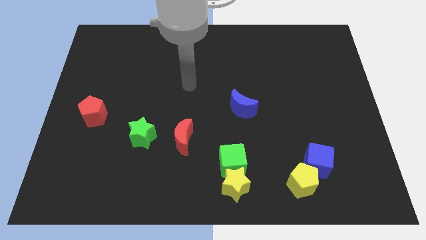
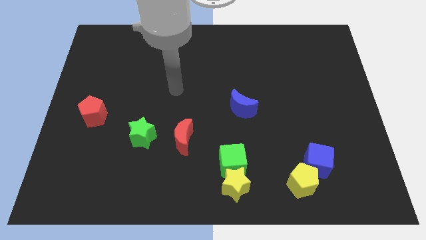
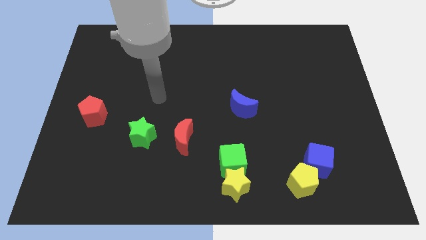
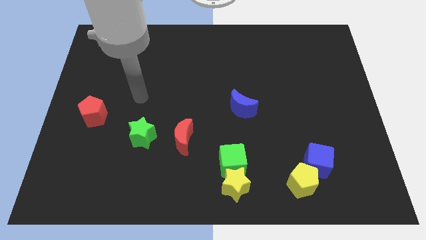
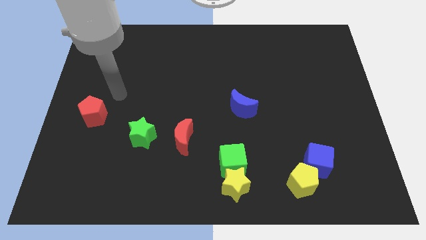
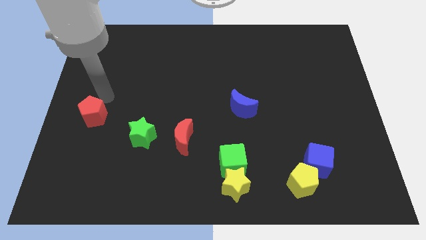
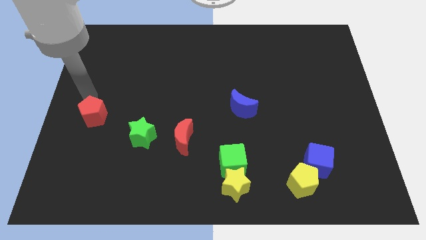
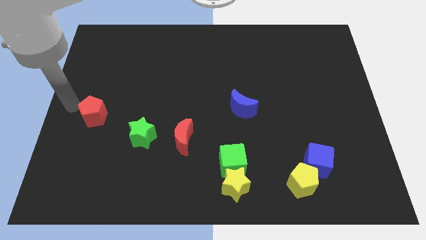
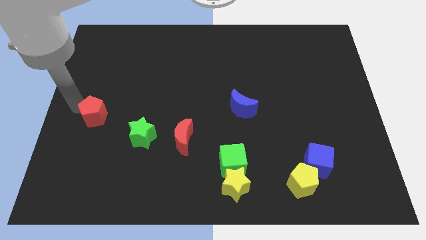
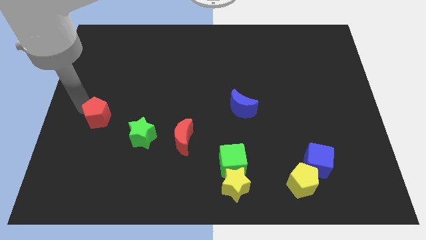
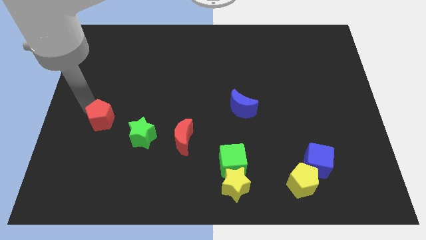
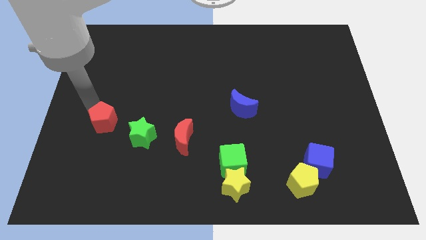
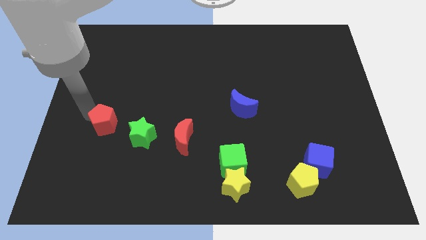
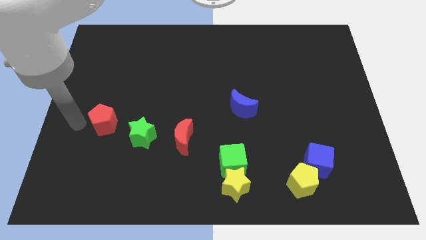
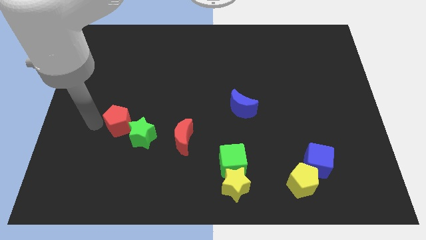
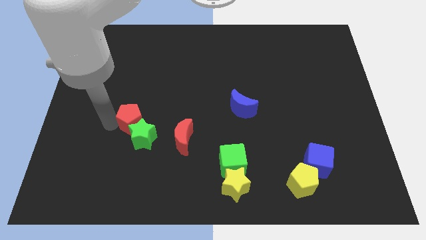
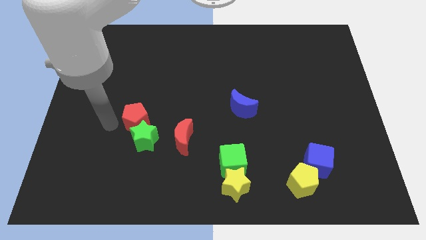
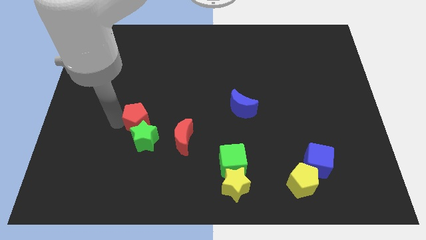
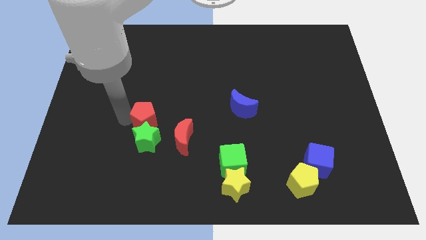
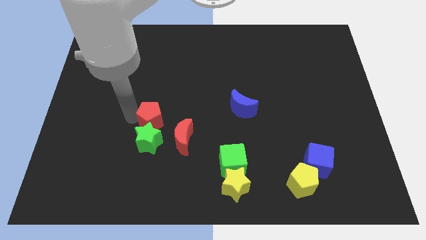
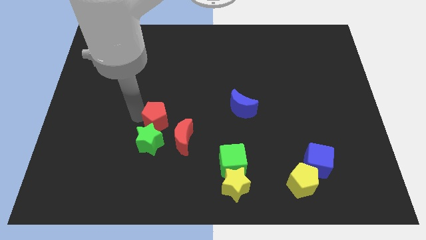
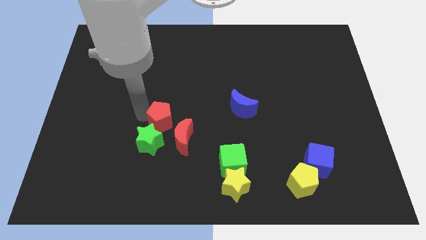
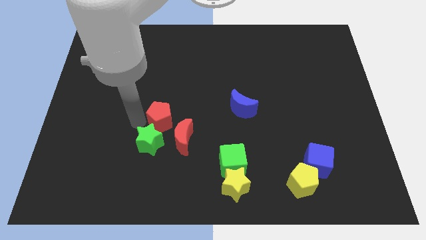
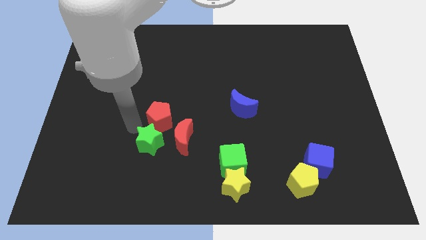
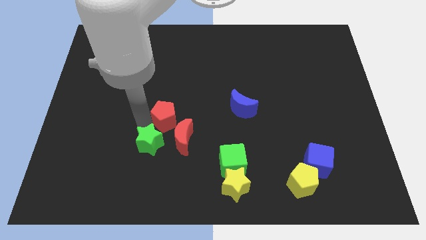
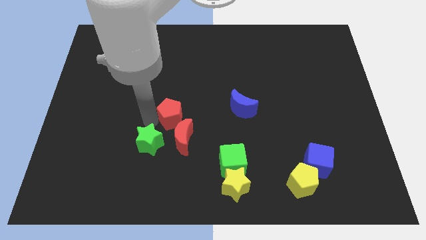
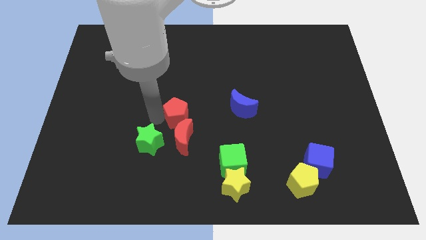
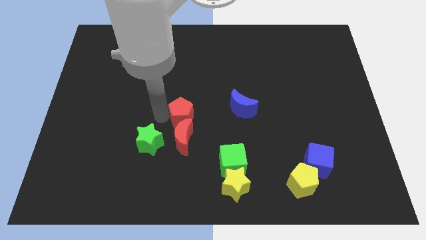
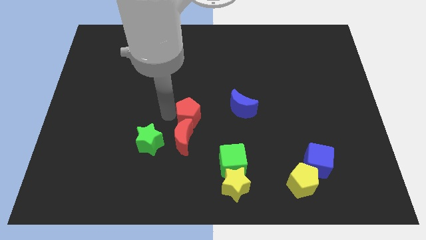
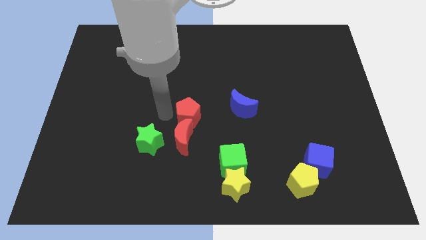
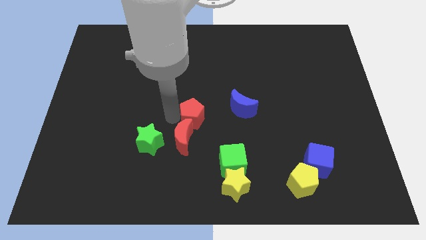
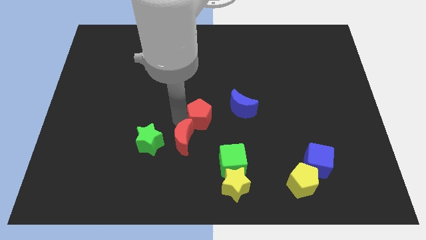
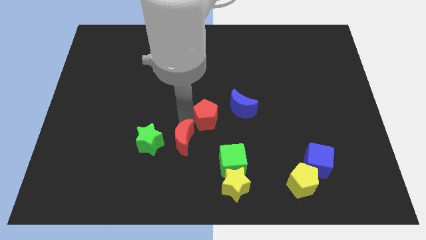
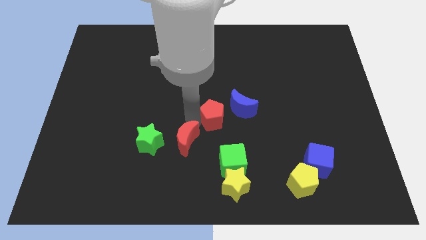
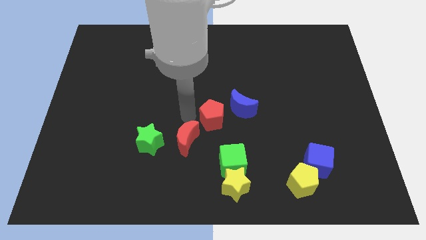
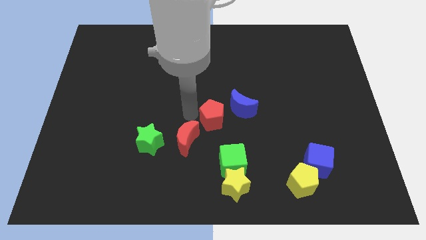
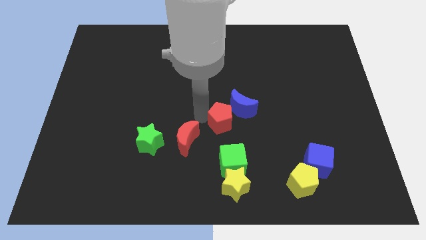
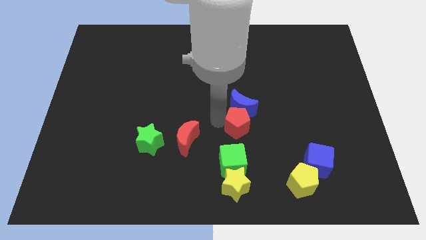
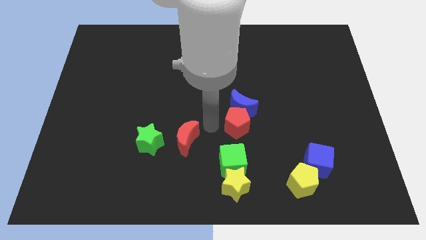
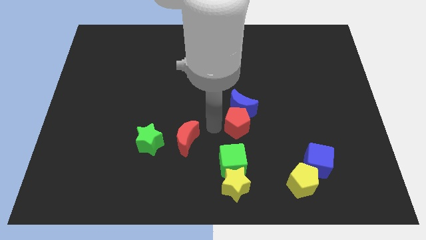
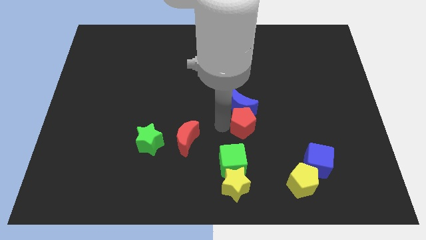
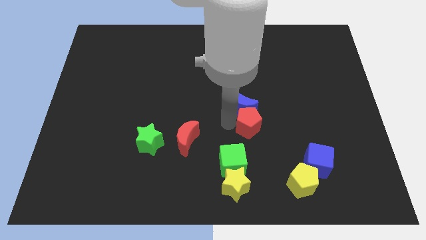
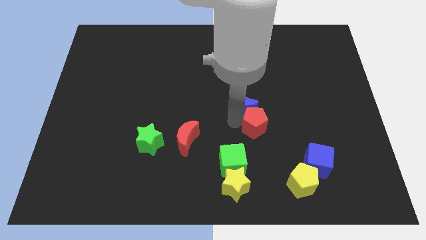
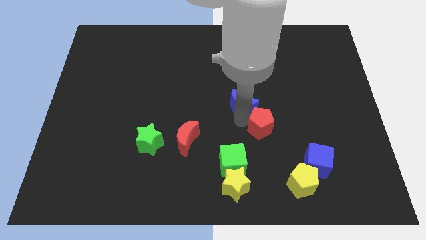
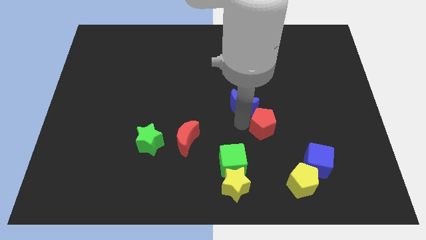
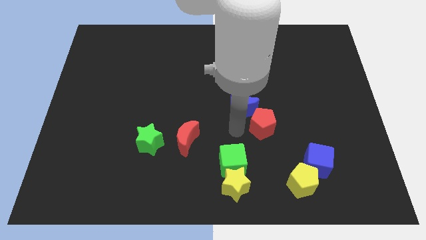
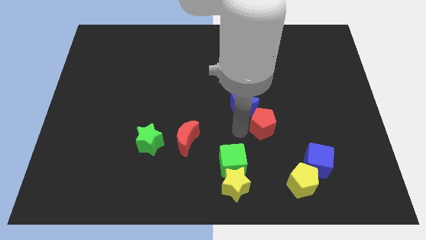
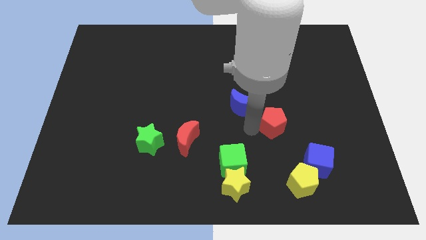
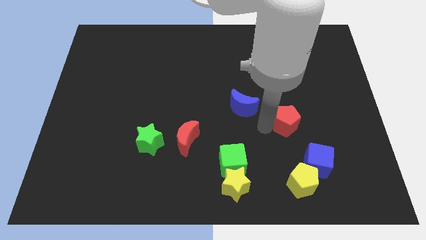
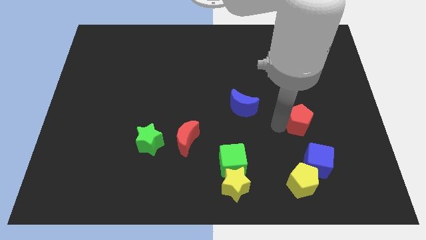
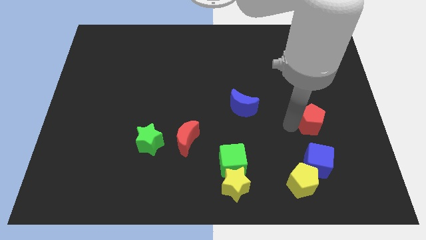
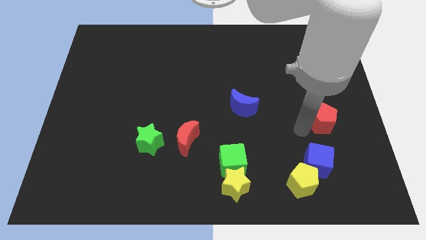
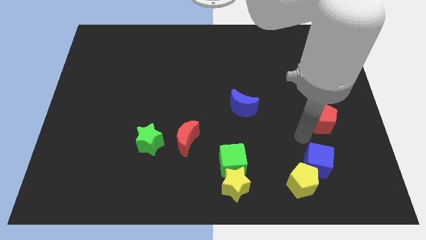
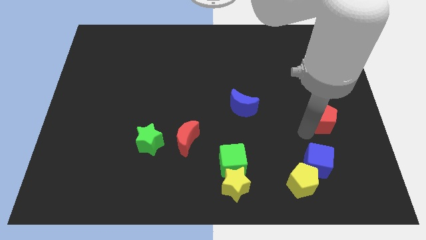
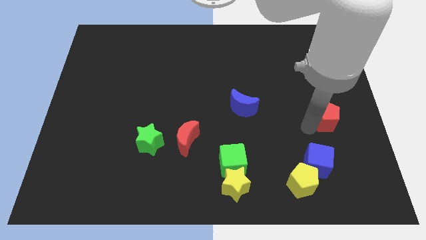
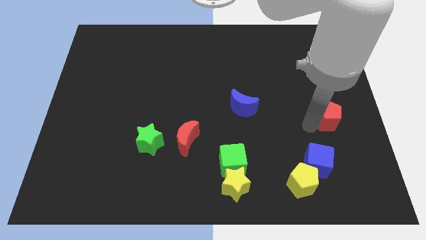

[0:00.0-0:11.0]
put the red pentagon to the right side

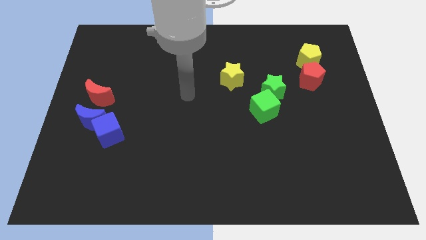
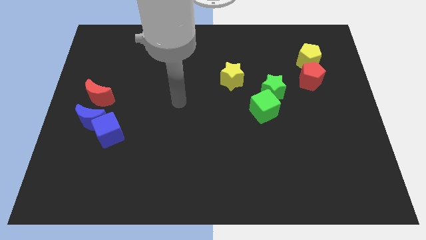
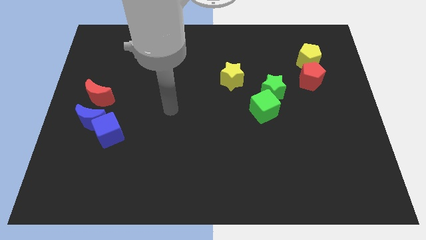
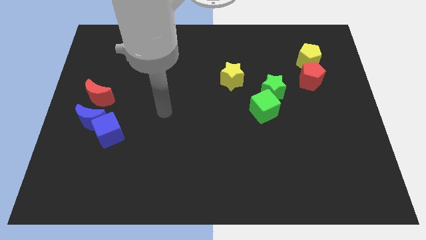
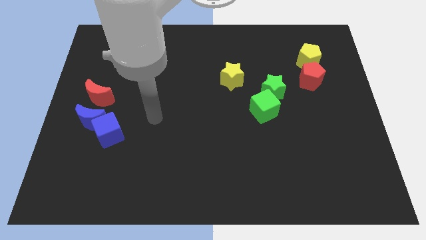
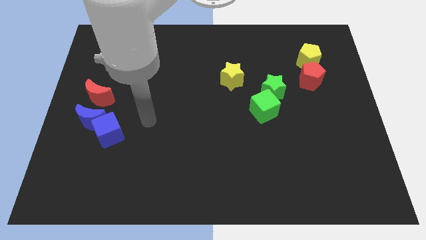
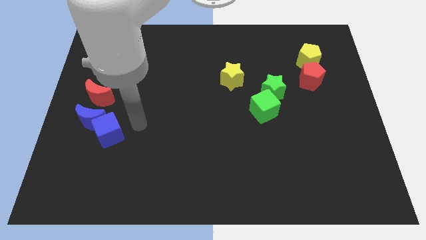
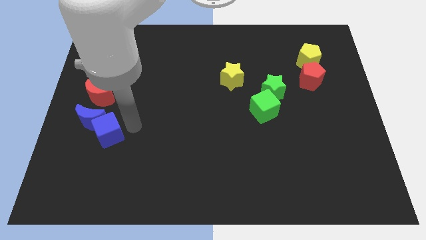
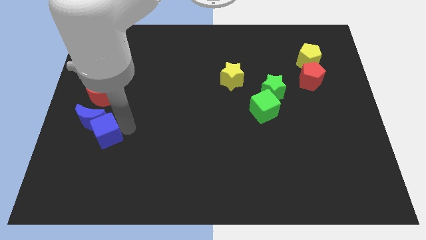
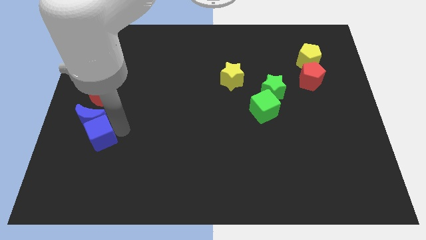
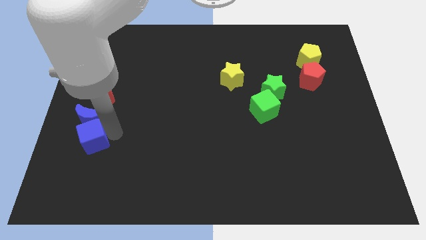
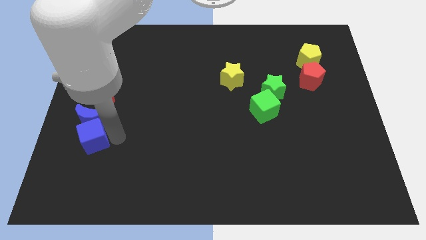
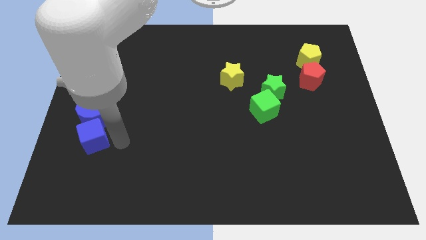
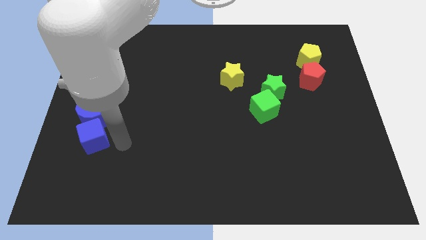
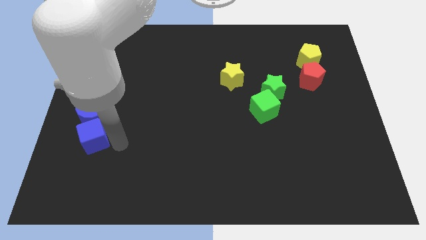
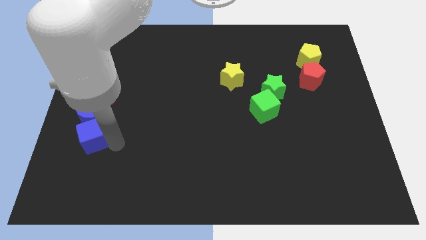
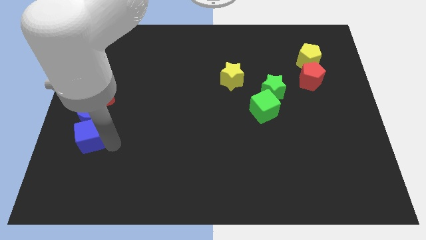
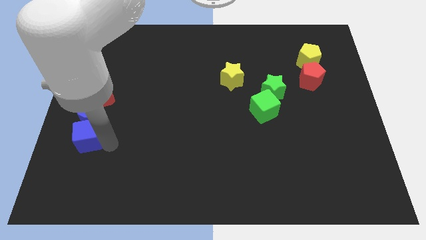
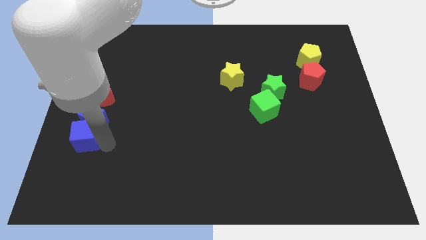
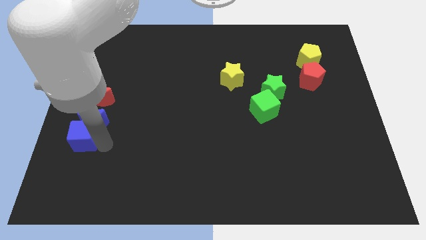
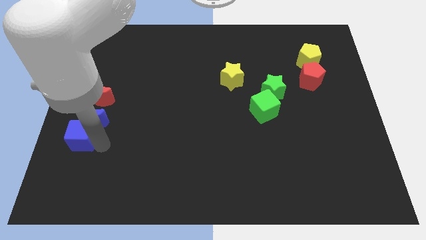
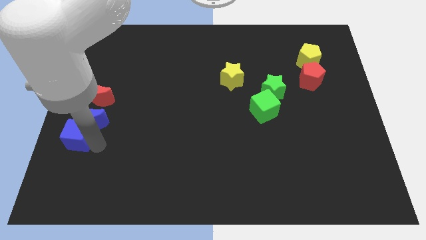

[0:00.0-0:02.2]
put the blue cube to the center left

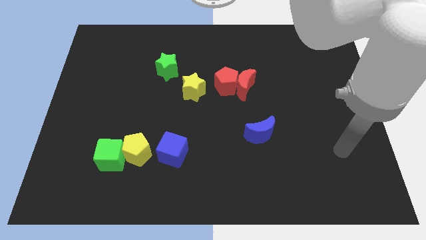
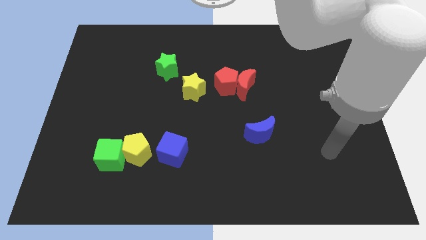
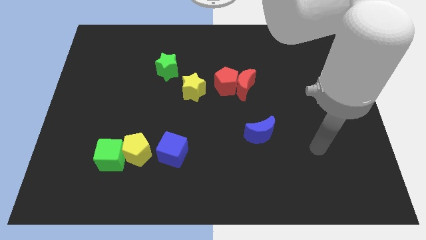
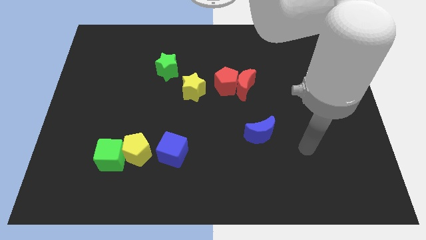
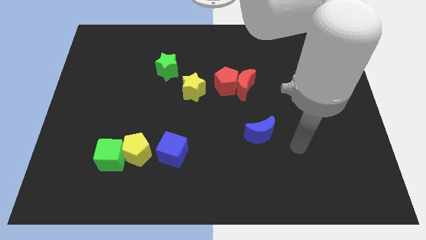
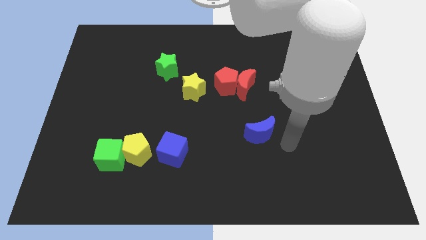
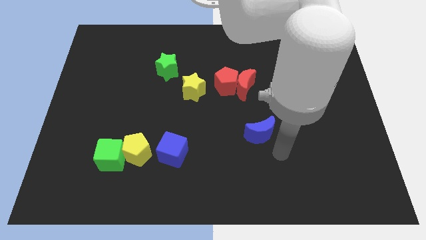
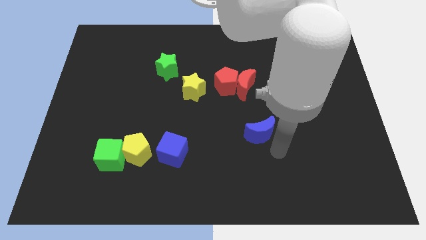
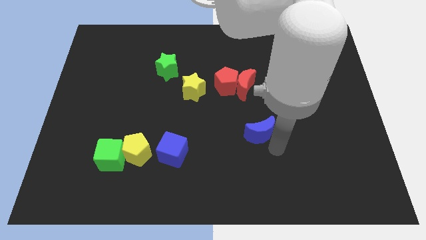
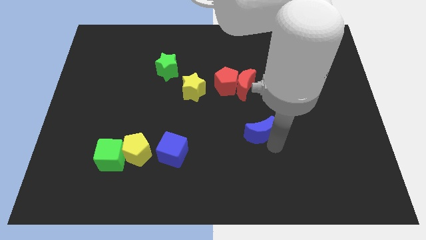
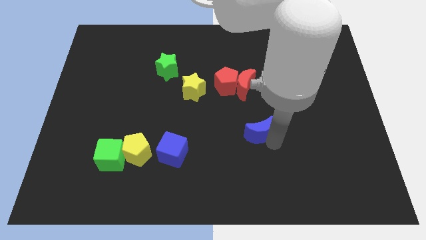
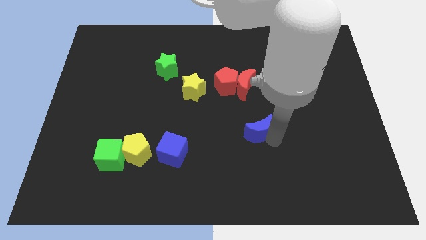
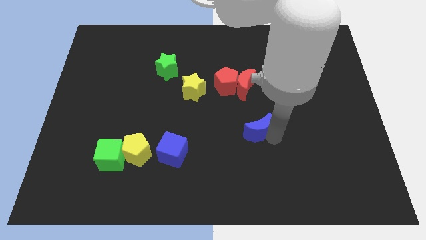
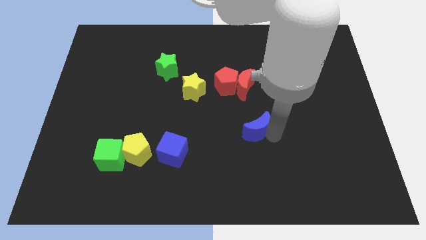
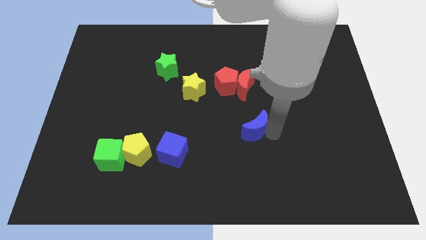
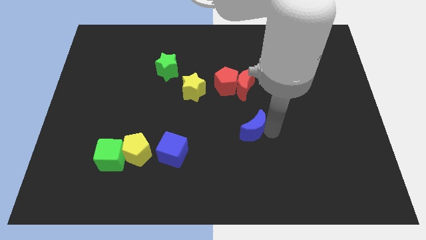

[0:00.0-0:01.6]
slide the blue moon to the center
